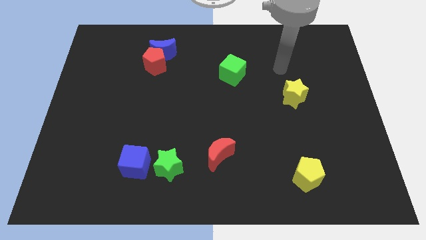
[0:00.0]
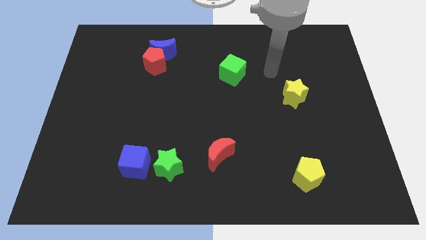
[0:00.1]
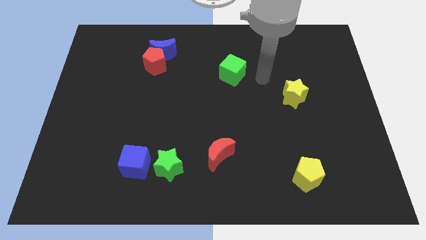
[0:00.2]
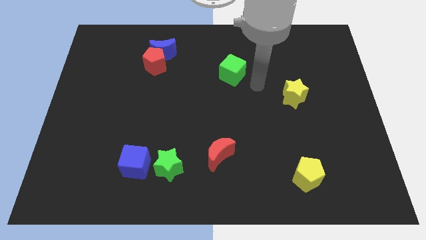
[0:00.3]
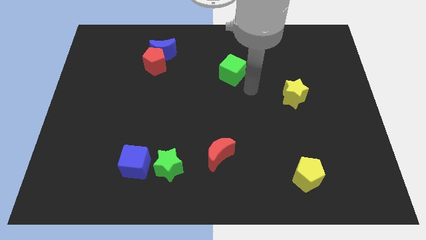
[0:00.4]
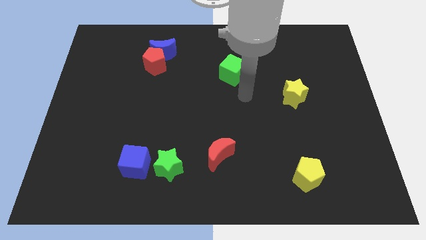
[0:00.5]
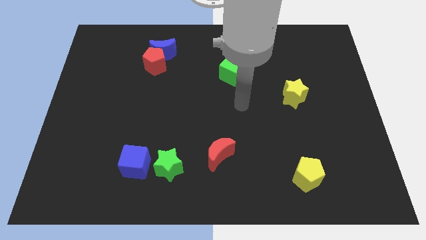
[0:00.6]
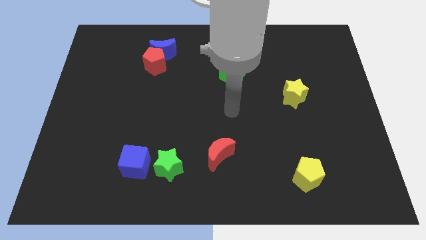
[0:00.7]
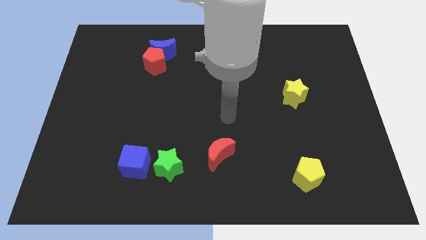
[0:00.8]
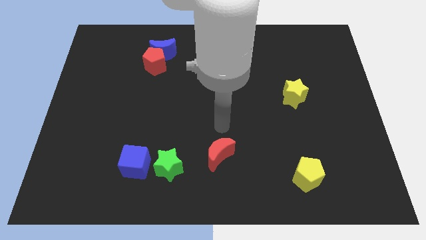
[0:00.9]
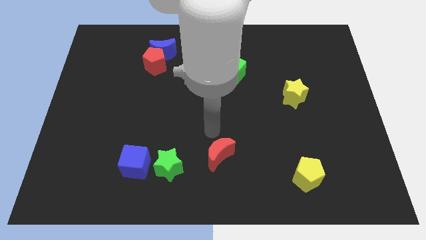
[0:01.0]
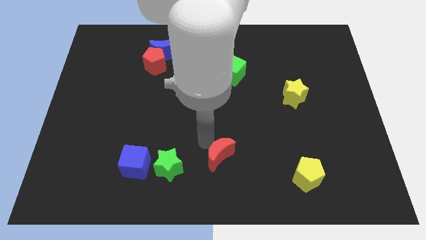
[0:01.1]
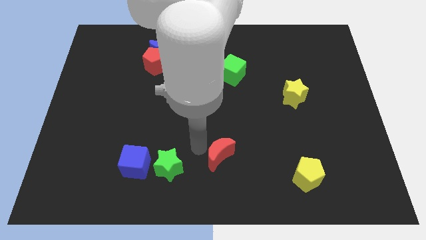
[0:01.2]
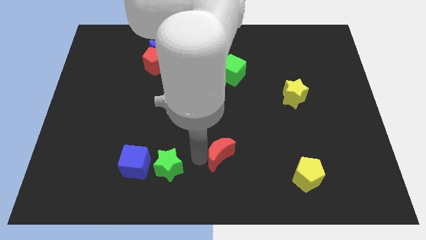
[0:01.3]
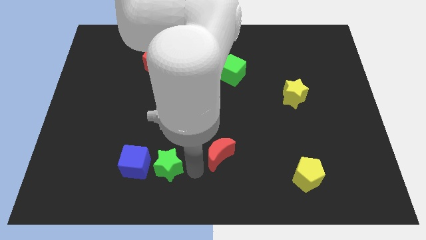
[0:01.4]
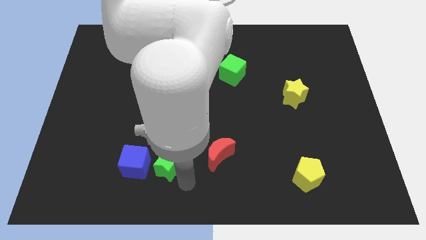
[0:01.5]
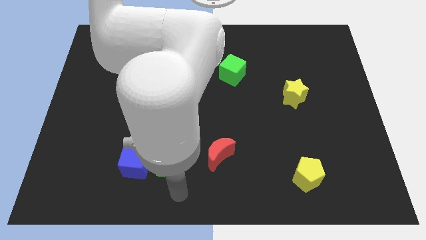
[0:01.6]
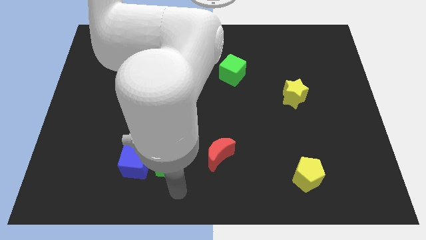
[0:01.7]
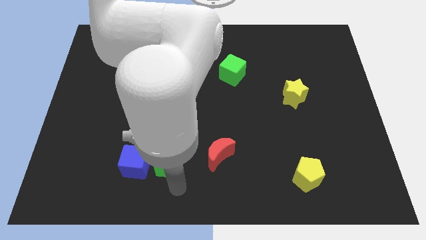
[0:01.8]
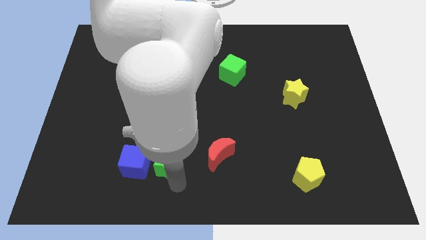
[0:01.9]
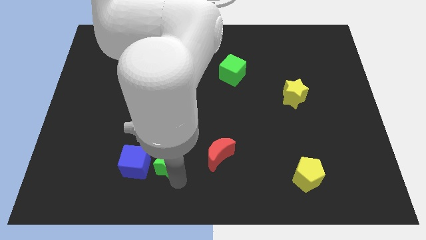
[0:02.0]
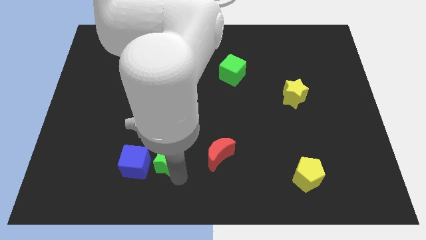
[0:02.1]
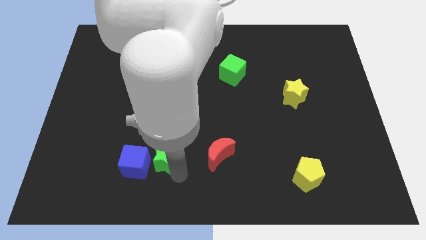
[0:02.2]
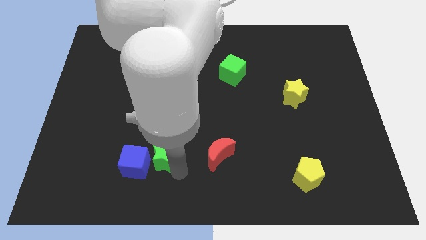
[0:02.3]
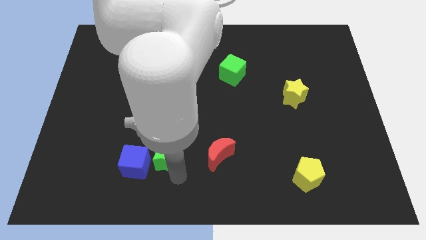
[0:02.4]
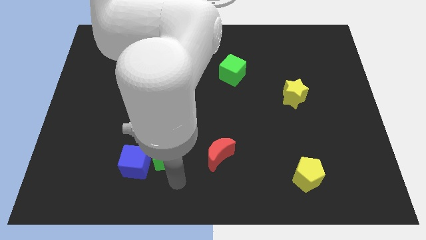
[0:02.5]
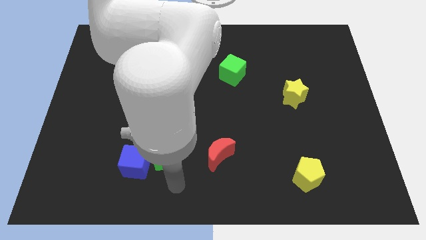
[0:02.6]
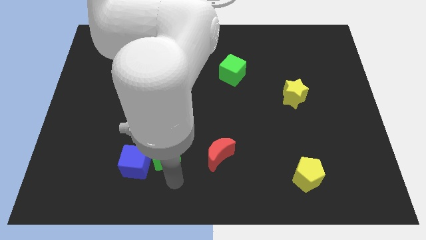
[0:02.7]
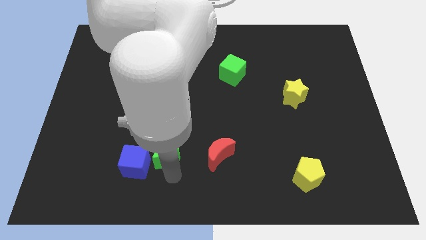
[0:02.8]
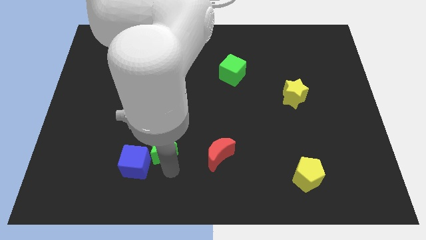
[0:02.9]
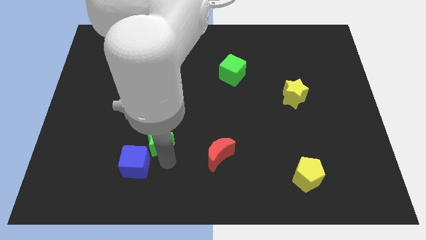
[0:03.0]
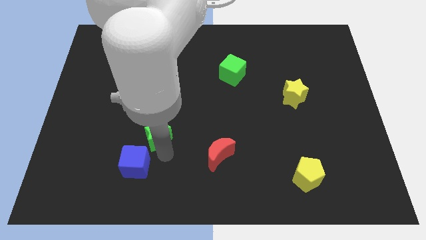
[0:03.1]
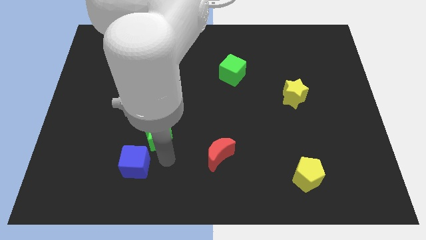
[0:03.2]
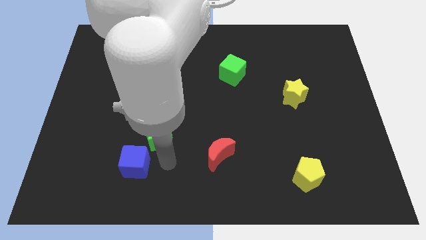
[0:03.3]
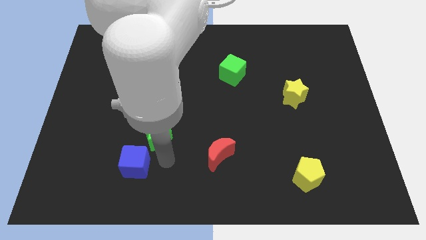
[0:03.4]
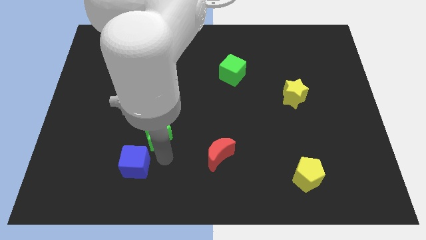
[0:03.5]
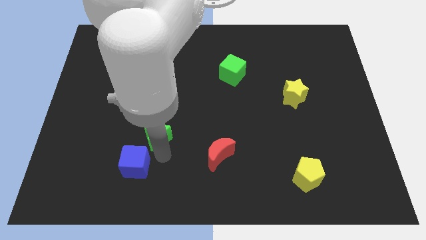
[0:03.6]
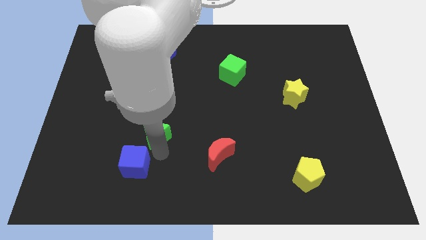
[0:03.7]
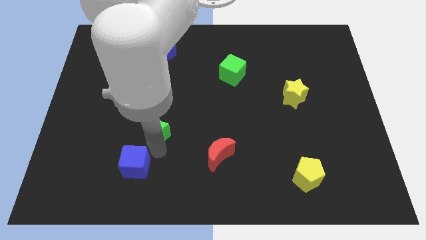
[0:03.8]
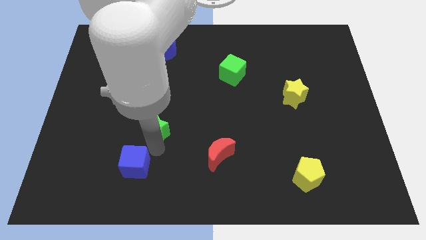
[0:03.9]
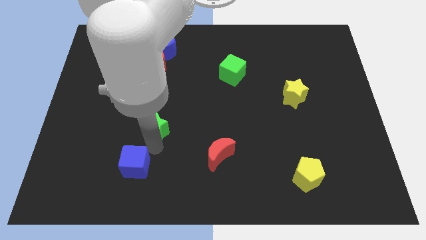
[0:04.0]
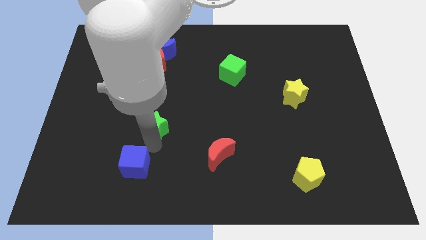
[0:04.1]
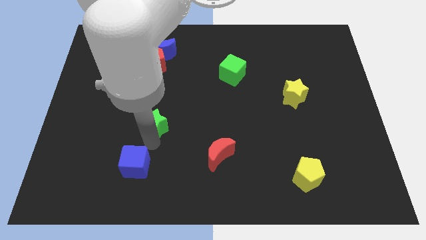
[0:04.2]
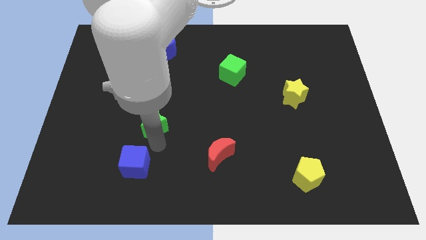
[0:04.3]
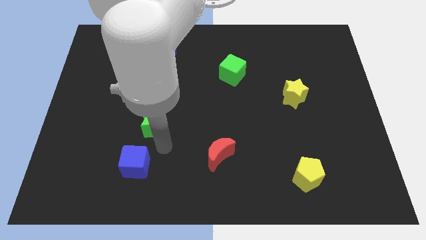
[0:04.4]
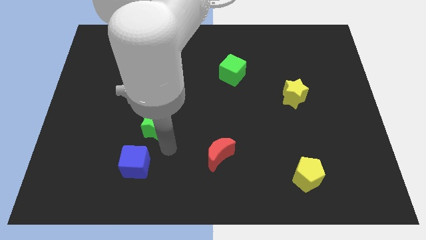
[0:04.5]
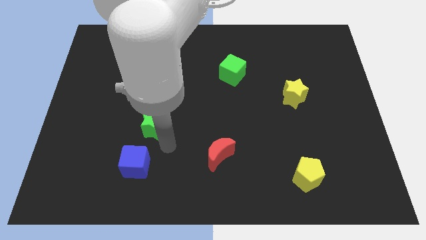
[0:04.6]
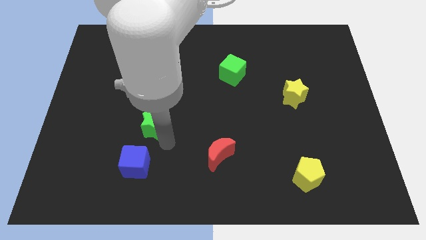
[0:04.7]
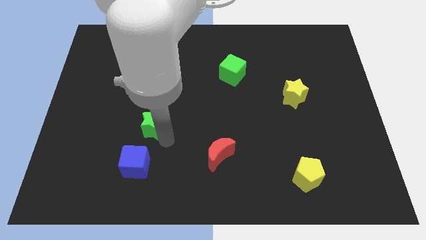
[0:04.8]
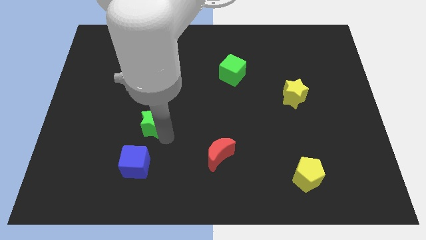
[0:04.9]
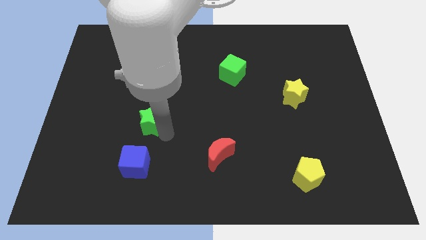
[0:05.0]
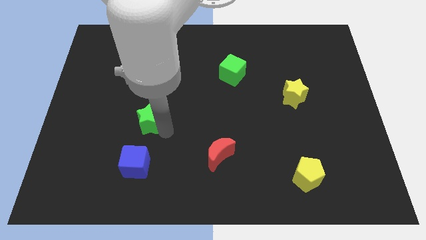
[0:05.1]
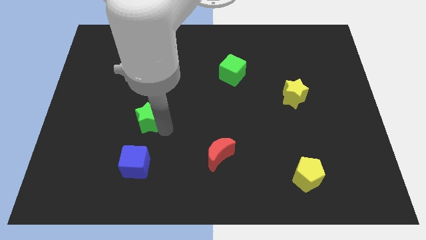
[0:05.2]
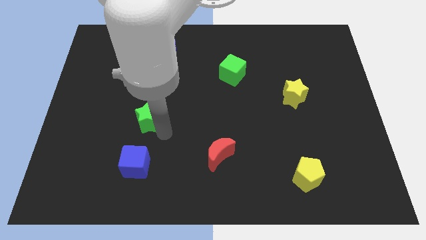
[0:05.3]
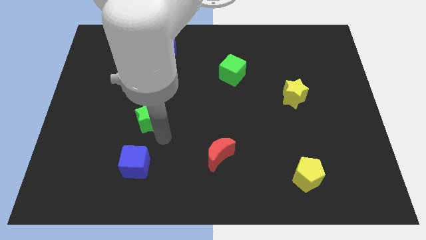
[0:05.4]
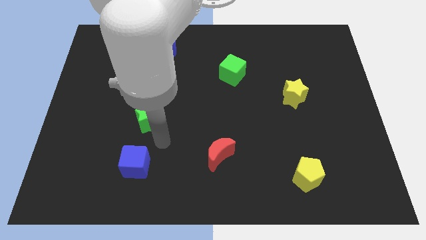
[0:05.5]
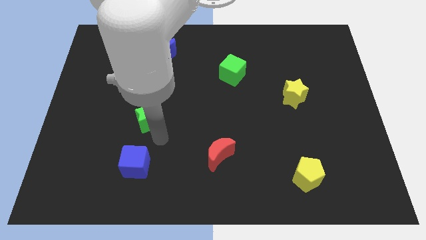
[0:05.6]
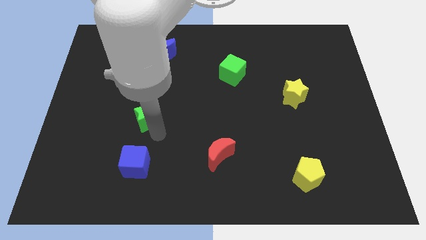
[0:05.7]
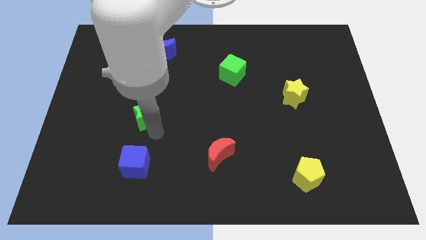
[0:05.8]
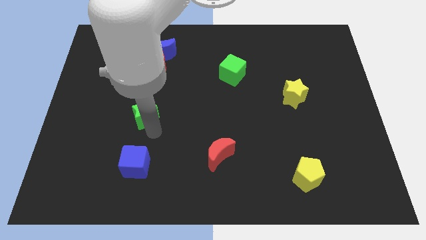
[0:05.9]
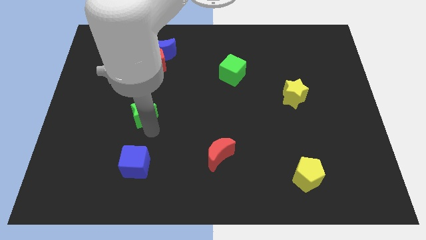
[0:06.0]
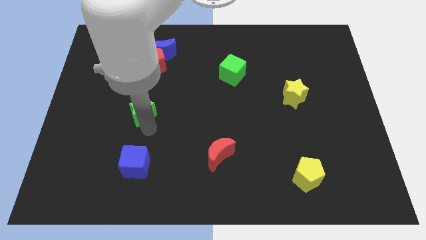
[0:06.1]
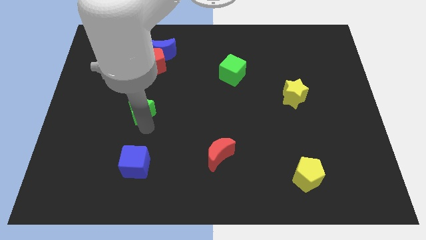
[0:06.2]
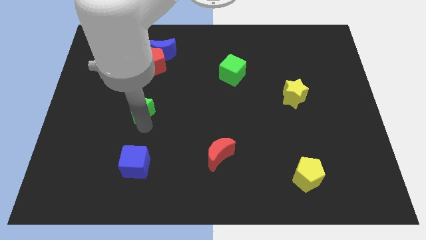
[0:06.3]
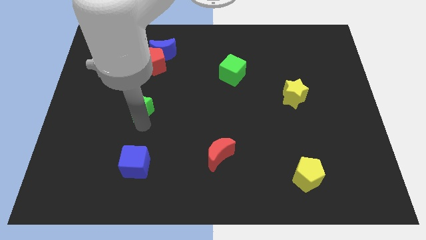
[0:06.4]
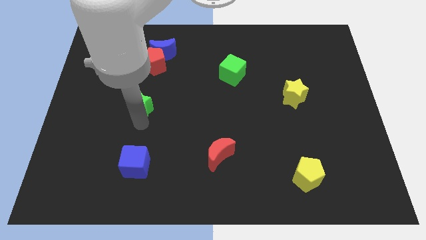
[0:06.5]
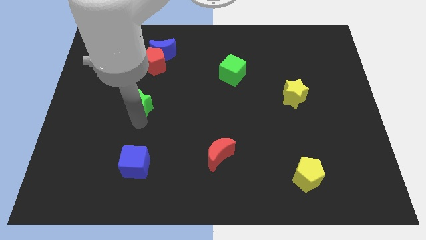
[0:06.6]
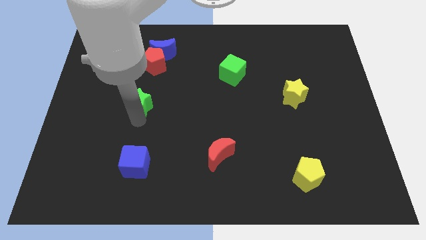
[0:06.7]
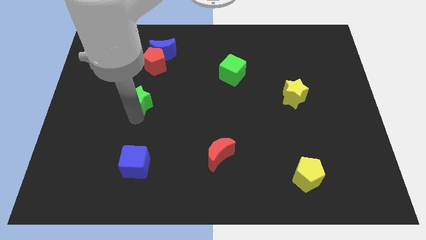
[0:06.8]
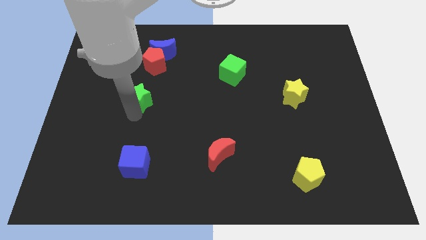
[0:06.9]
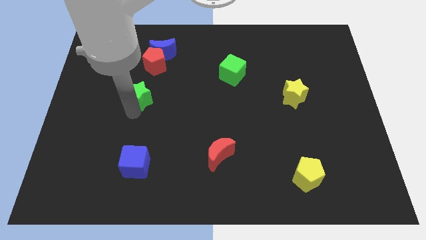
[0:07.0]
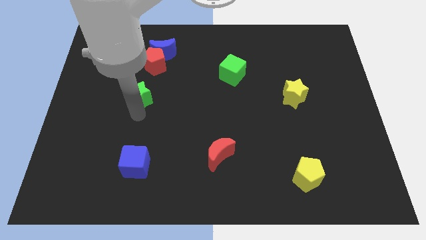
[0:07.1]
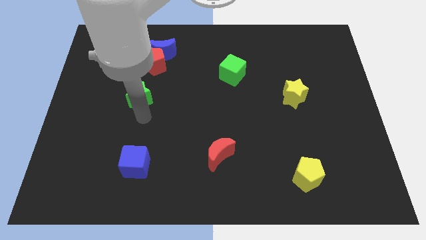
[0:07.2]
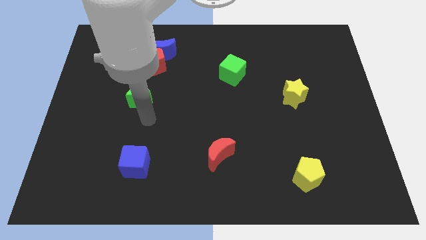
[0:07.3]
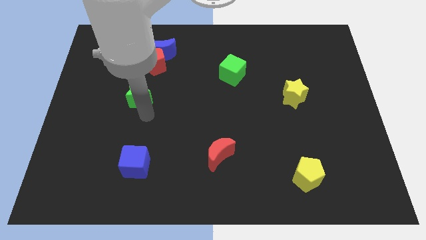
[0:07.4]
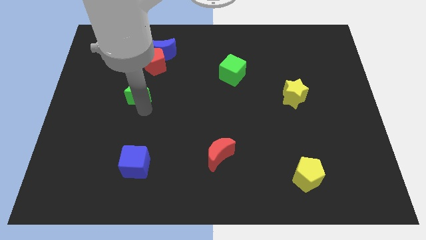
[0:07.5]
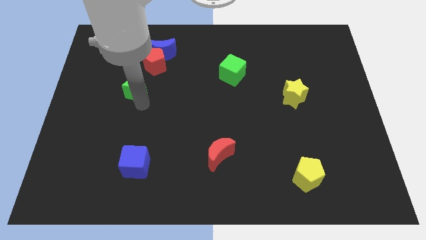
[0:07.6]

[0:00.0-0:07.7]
put the green star diagonally down and to the left of the red pentagon

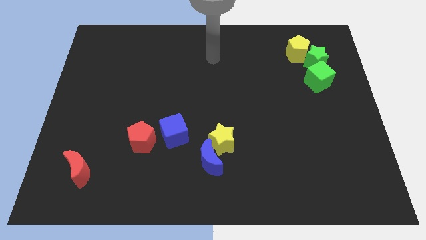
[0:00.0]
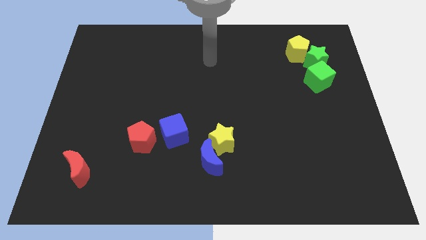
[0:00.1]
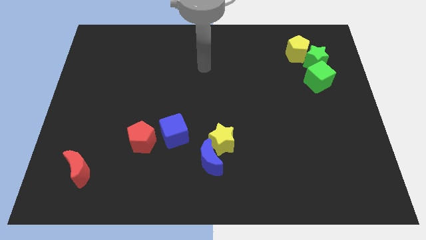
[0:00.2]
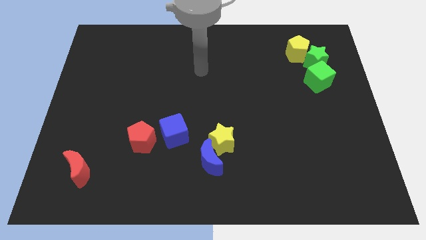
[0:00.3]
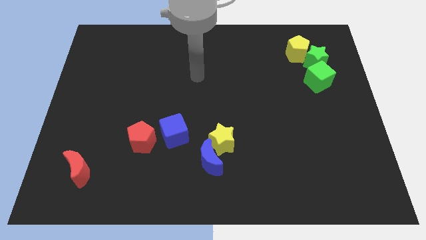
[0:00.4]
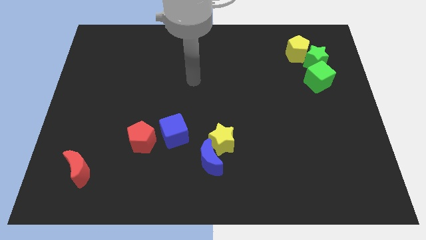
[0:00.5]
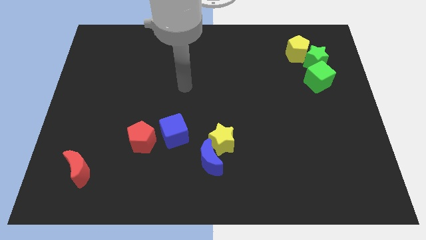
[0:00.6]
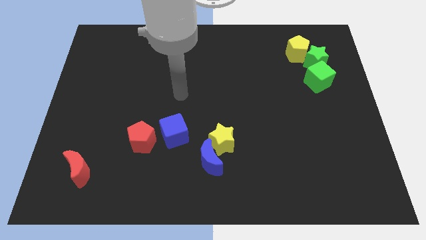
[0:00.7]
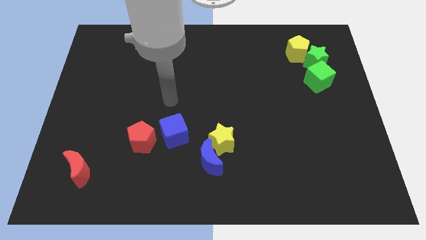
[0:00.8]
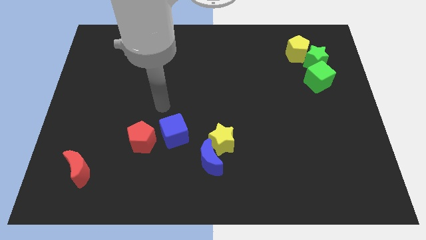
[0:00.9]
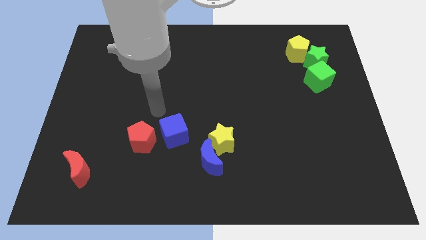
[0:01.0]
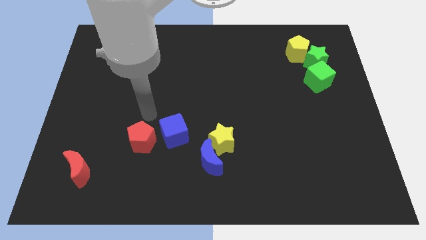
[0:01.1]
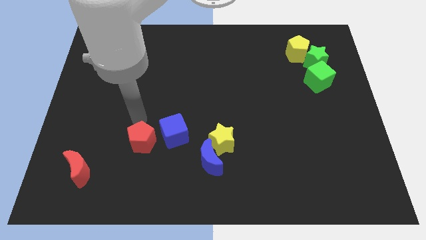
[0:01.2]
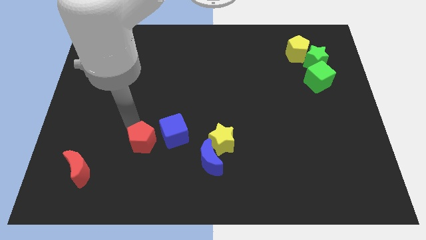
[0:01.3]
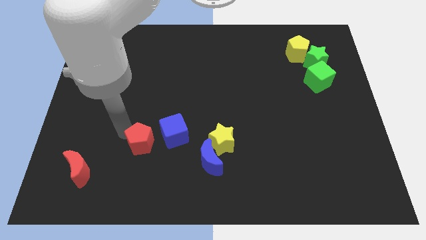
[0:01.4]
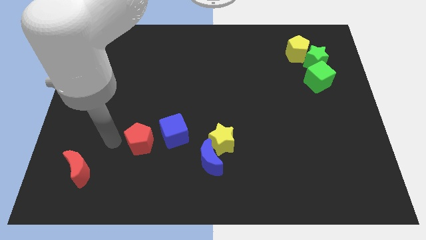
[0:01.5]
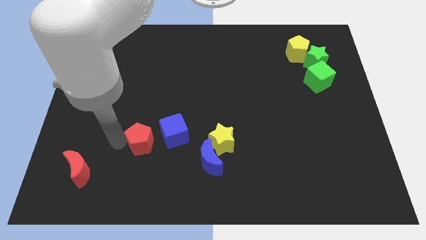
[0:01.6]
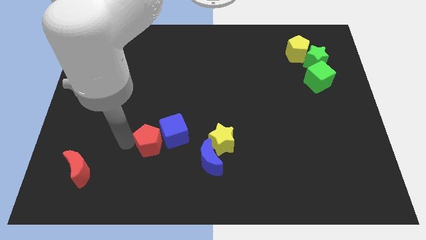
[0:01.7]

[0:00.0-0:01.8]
move the red pentagon just left of the yellow star
